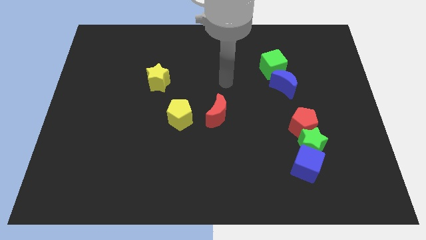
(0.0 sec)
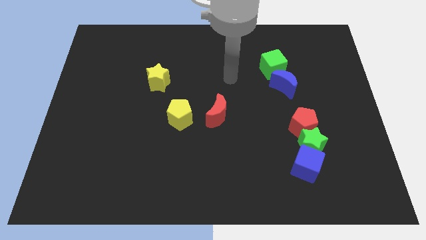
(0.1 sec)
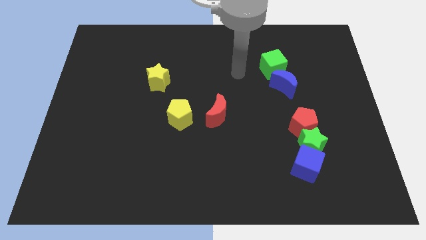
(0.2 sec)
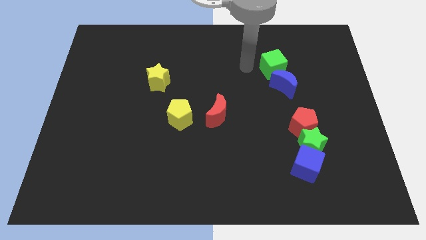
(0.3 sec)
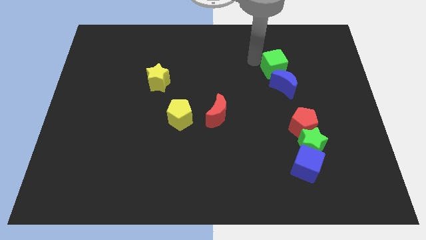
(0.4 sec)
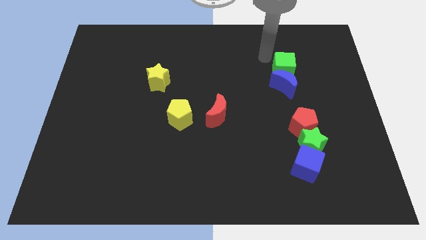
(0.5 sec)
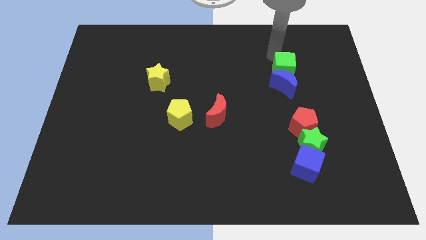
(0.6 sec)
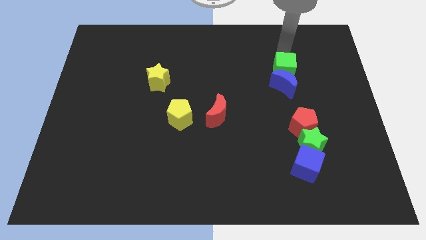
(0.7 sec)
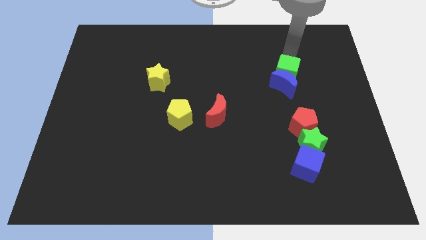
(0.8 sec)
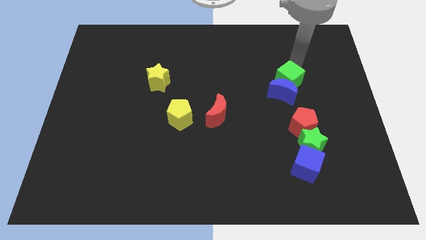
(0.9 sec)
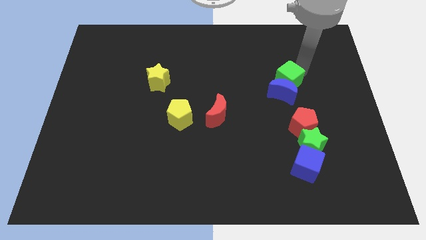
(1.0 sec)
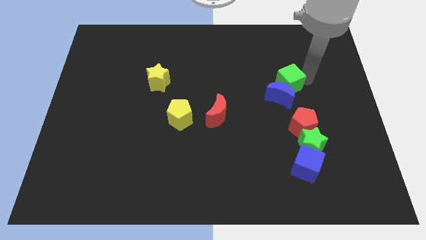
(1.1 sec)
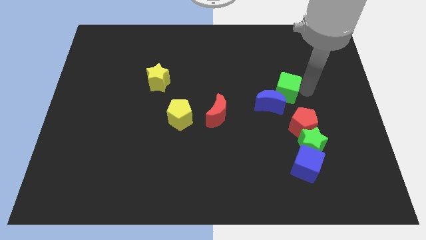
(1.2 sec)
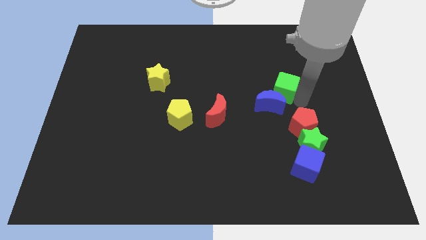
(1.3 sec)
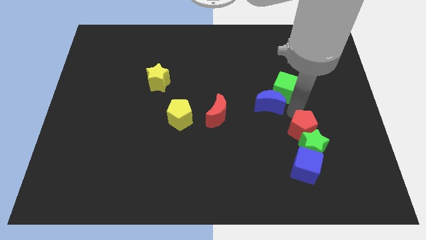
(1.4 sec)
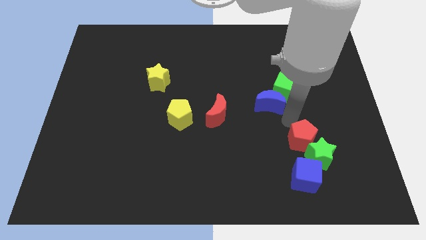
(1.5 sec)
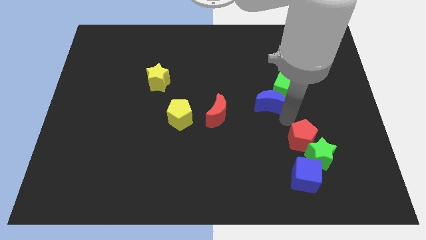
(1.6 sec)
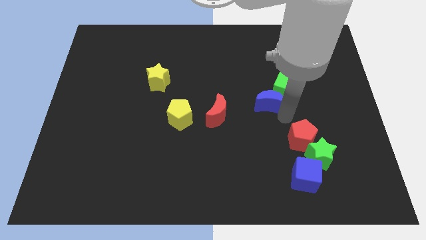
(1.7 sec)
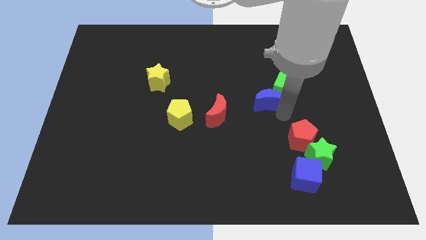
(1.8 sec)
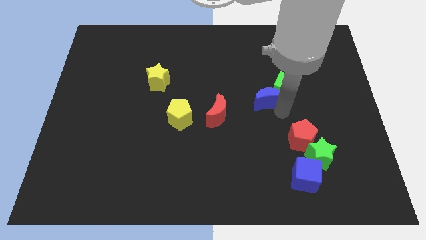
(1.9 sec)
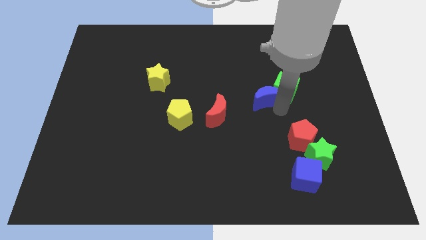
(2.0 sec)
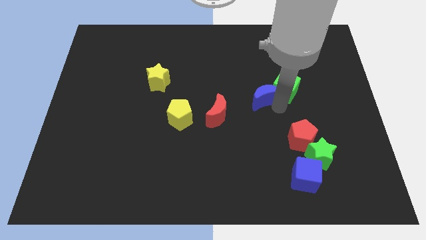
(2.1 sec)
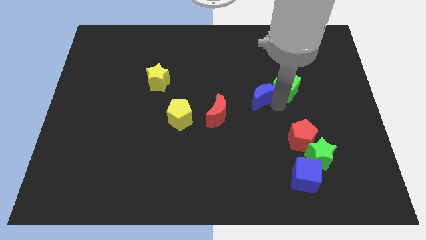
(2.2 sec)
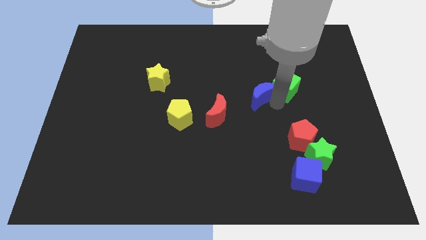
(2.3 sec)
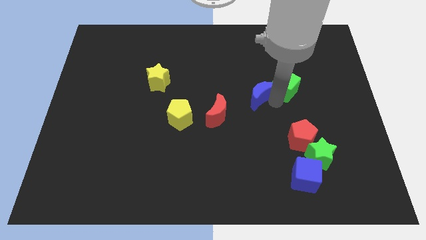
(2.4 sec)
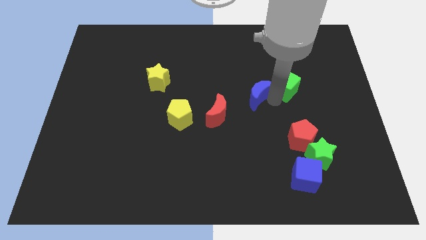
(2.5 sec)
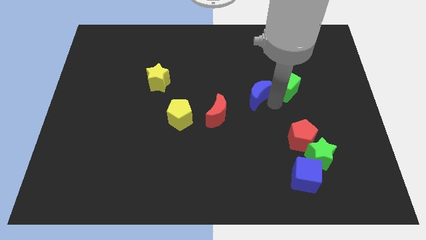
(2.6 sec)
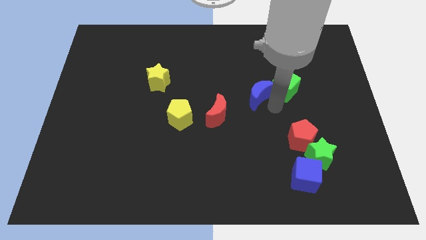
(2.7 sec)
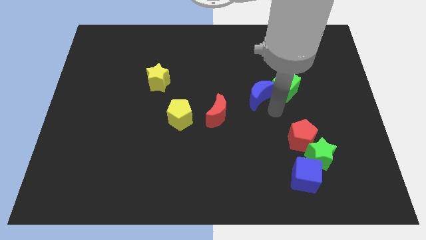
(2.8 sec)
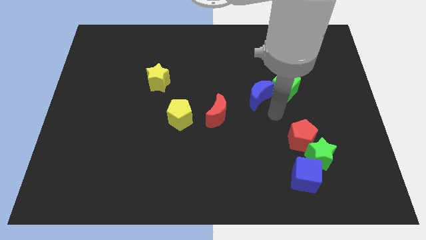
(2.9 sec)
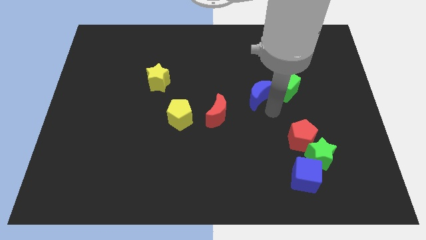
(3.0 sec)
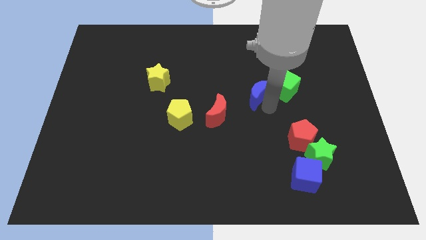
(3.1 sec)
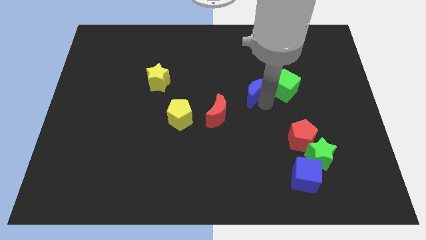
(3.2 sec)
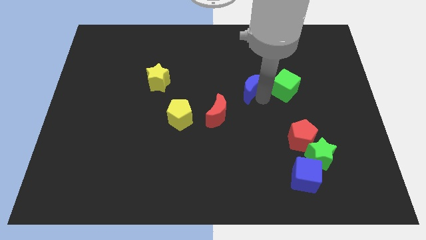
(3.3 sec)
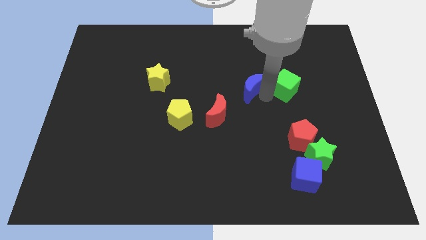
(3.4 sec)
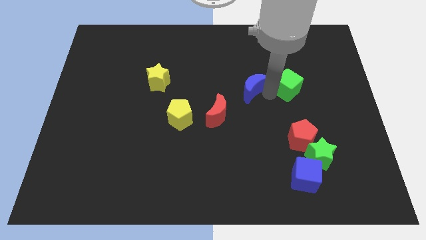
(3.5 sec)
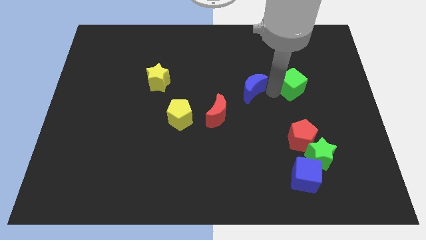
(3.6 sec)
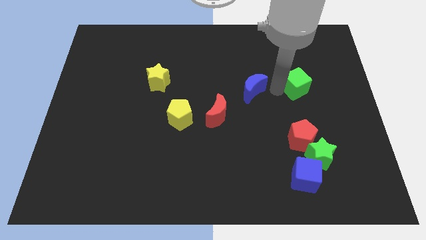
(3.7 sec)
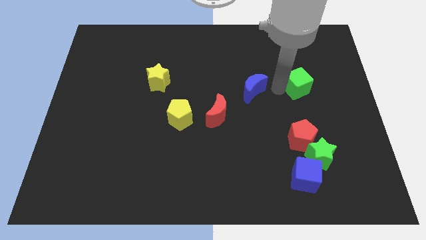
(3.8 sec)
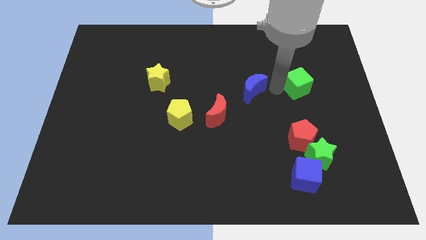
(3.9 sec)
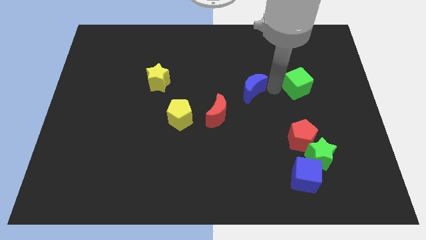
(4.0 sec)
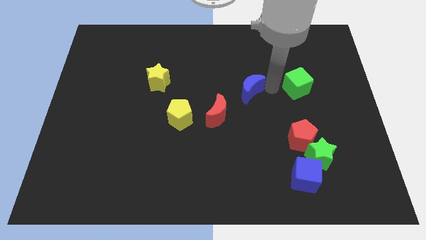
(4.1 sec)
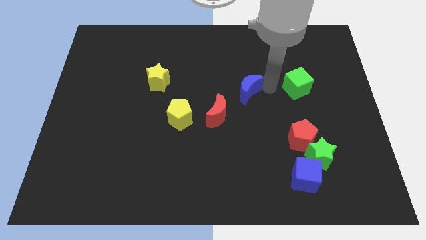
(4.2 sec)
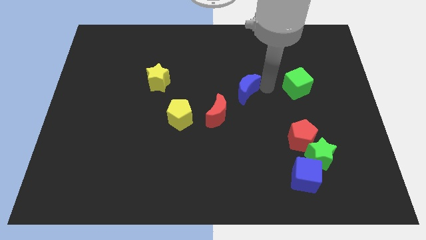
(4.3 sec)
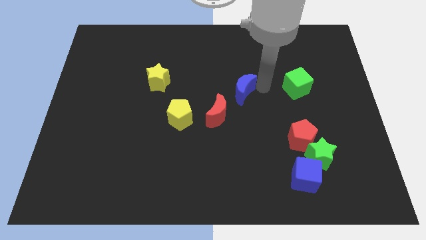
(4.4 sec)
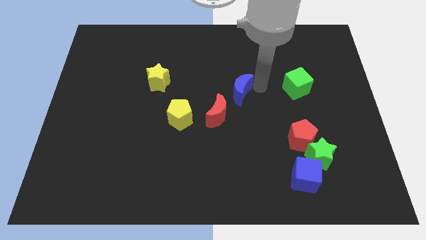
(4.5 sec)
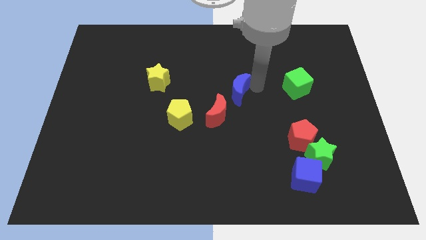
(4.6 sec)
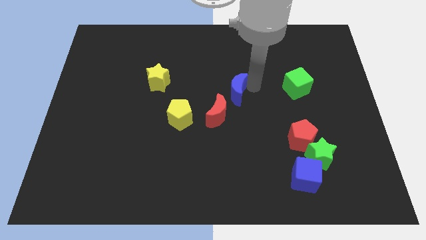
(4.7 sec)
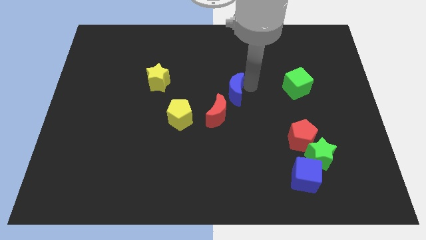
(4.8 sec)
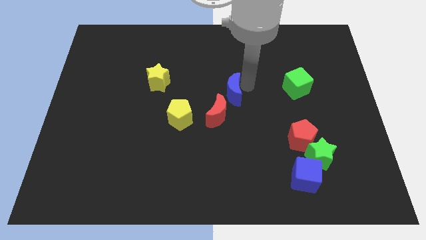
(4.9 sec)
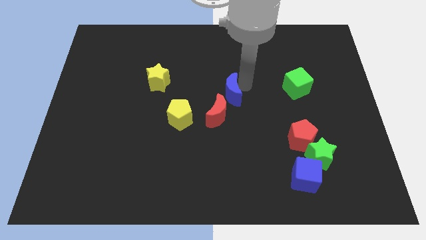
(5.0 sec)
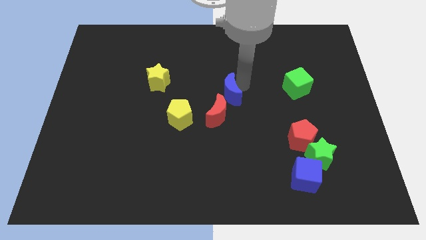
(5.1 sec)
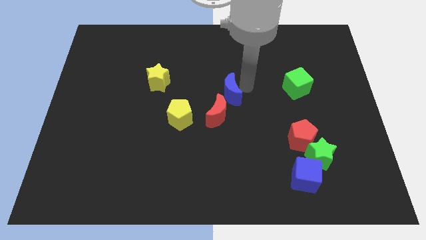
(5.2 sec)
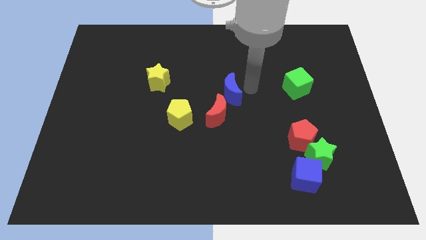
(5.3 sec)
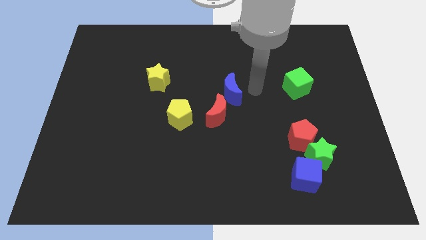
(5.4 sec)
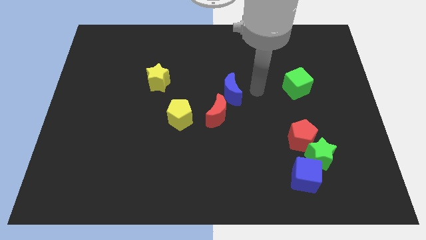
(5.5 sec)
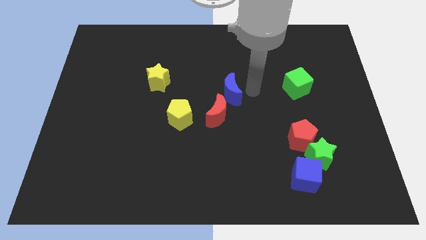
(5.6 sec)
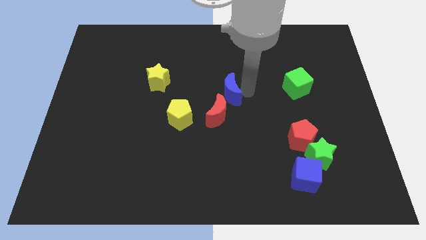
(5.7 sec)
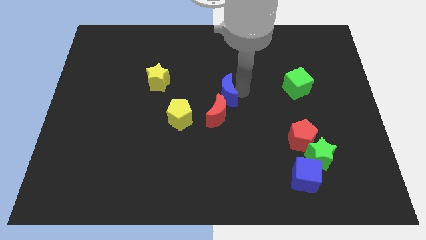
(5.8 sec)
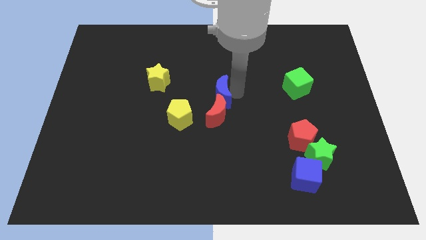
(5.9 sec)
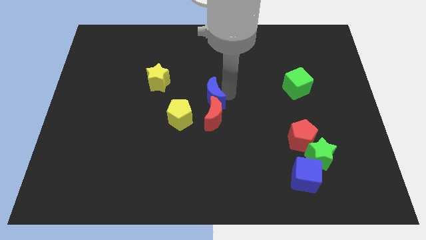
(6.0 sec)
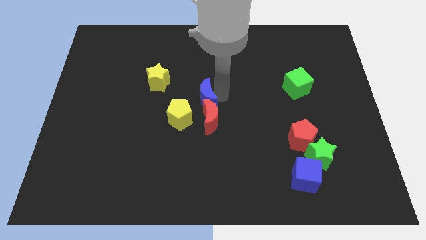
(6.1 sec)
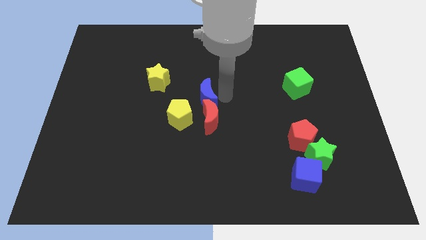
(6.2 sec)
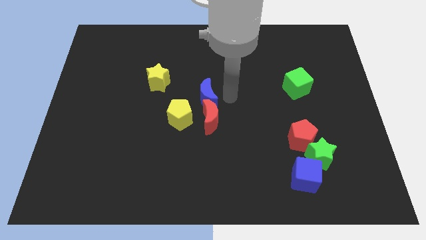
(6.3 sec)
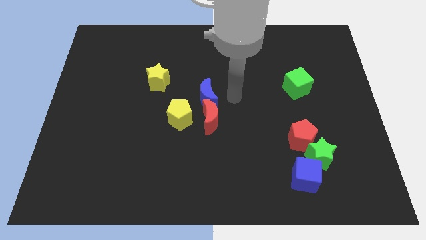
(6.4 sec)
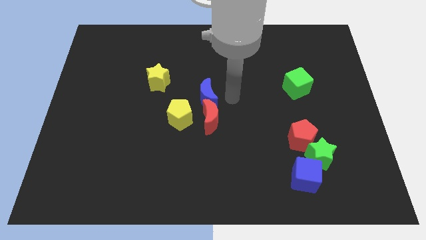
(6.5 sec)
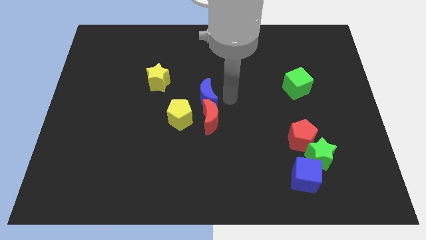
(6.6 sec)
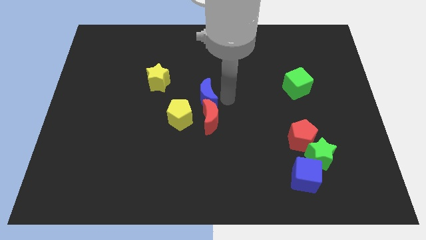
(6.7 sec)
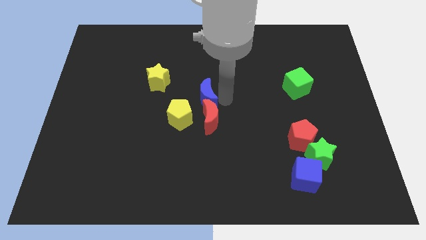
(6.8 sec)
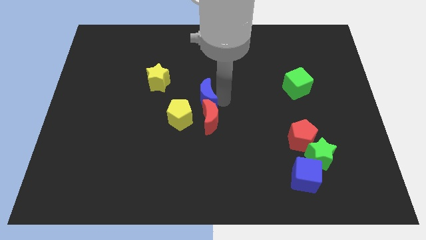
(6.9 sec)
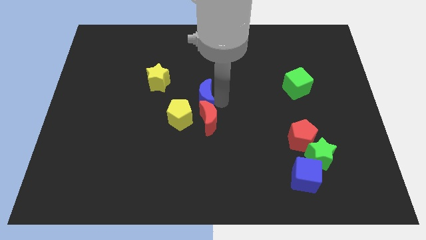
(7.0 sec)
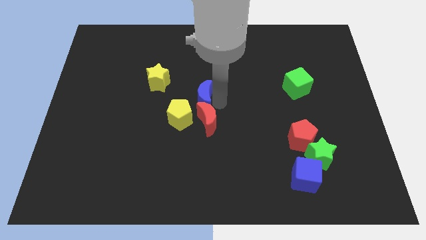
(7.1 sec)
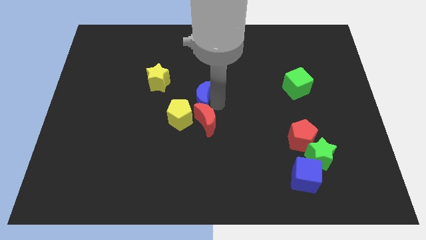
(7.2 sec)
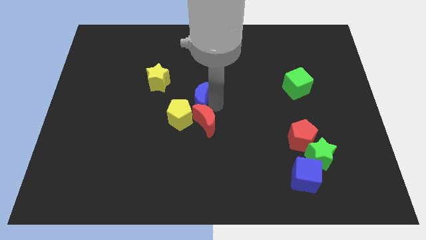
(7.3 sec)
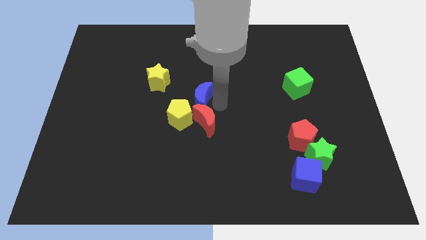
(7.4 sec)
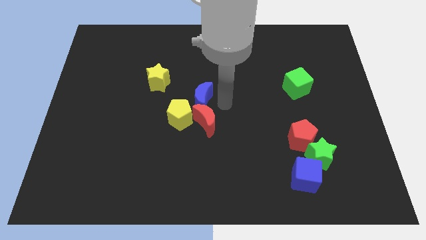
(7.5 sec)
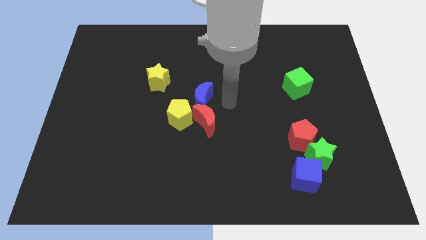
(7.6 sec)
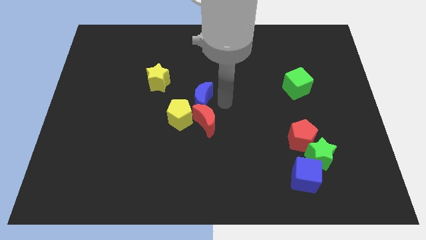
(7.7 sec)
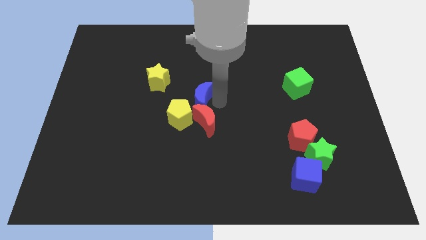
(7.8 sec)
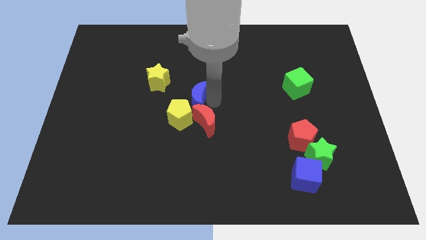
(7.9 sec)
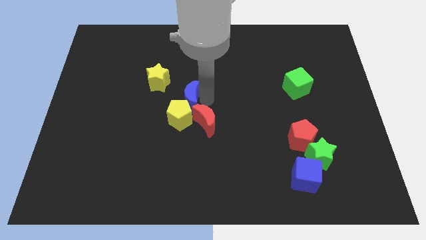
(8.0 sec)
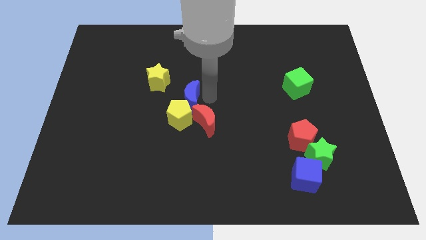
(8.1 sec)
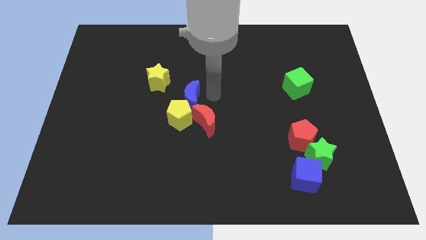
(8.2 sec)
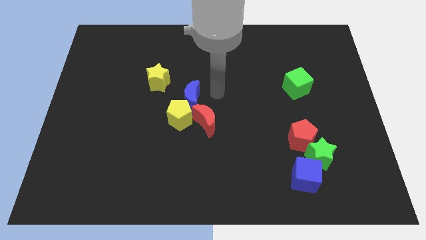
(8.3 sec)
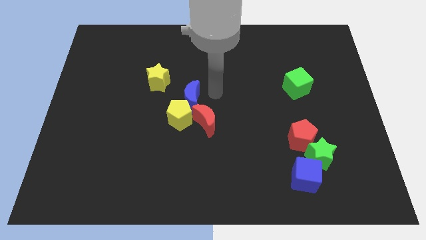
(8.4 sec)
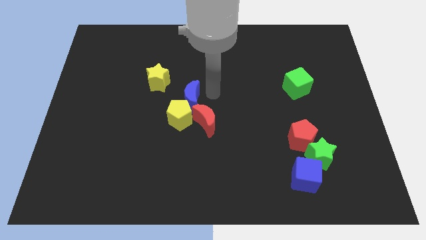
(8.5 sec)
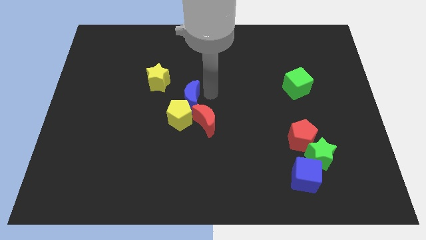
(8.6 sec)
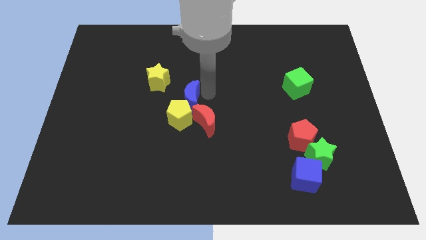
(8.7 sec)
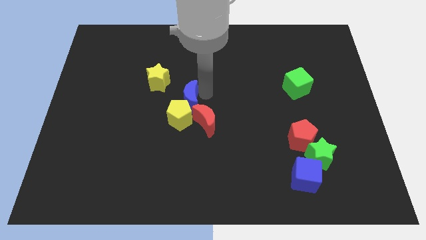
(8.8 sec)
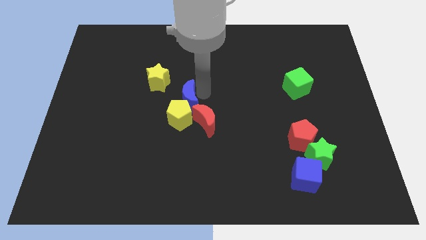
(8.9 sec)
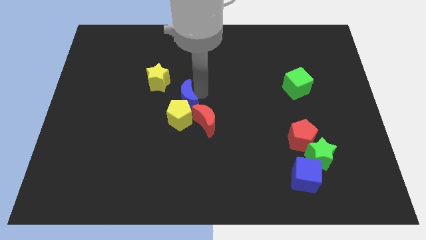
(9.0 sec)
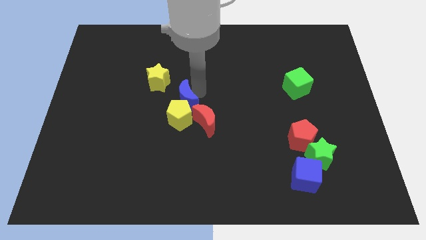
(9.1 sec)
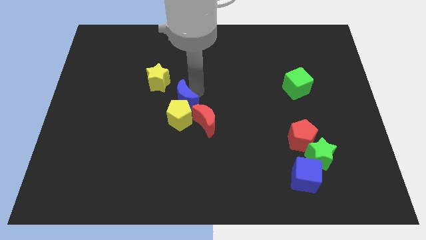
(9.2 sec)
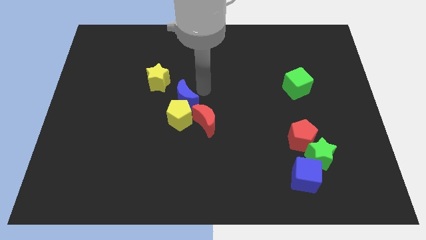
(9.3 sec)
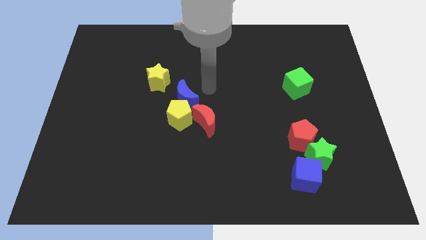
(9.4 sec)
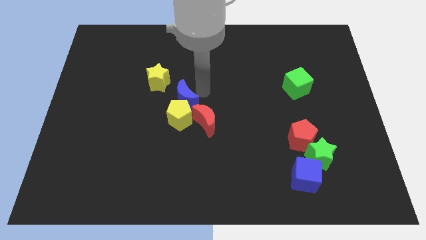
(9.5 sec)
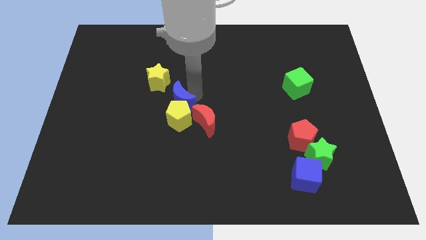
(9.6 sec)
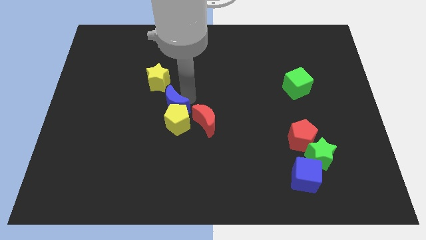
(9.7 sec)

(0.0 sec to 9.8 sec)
move the blue moon to the bottom of the yellow star
